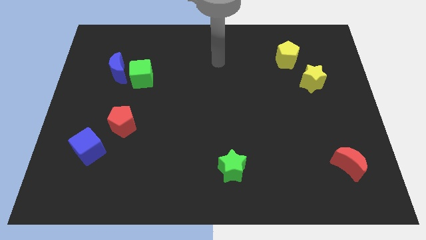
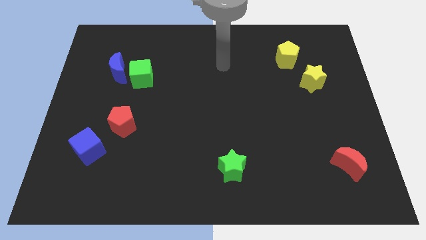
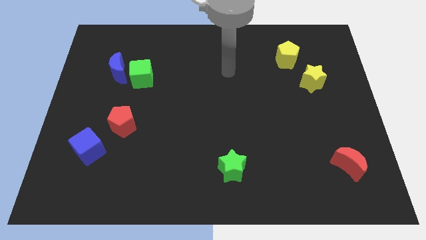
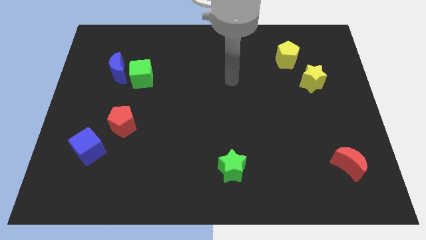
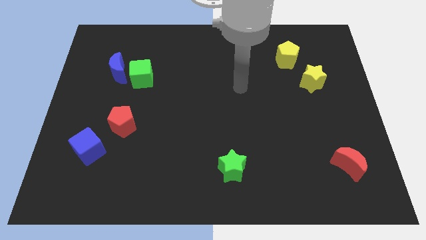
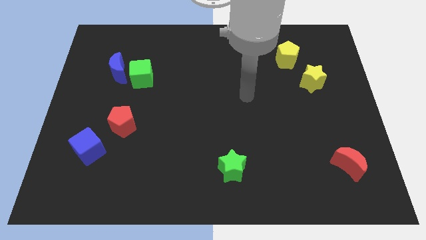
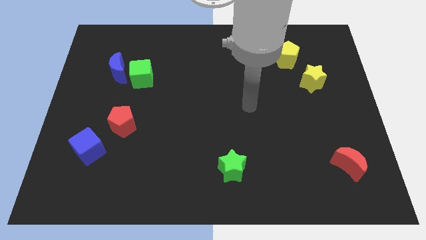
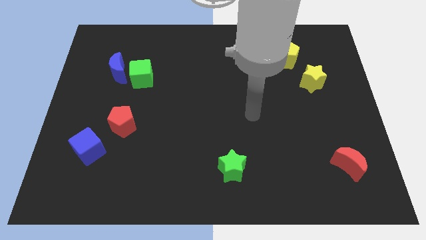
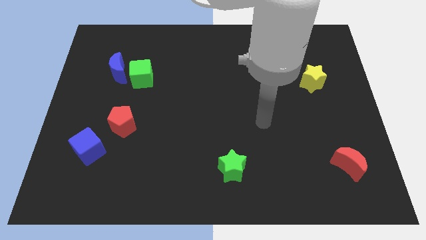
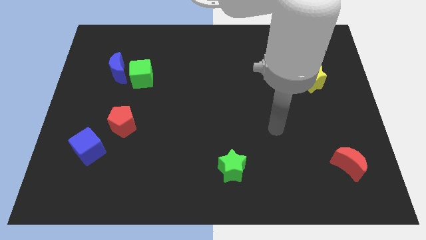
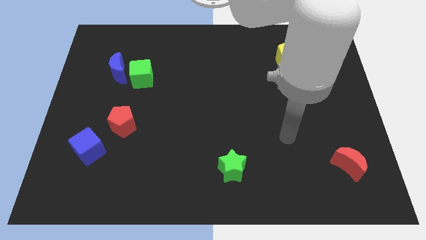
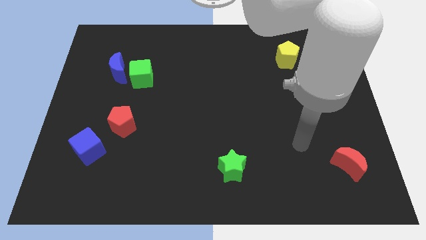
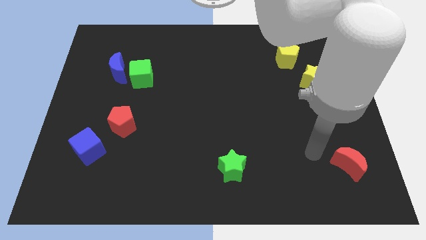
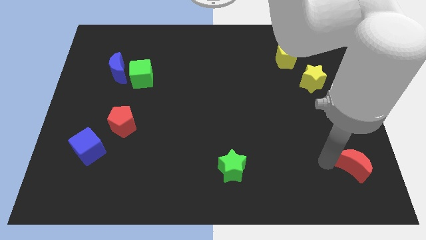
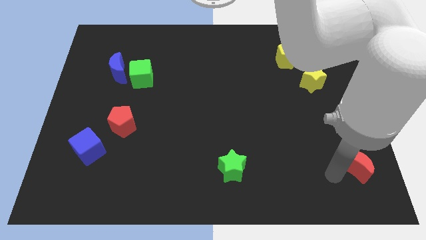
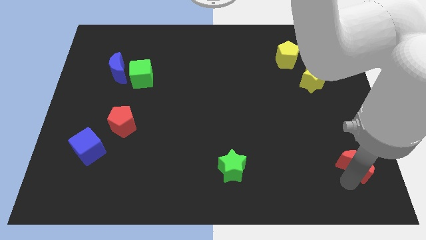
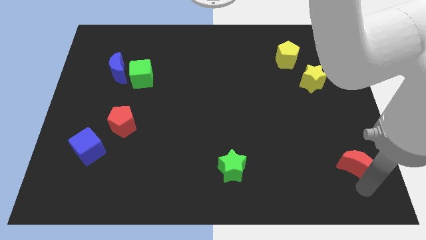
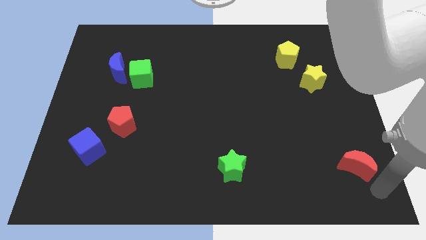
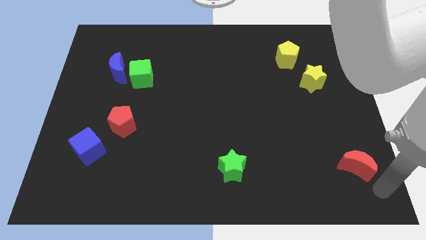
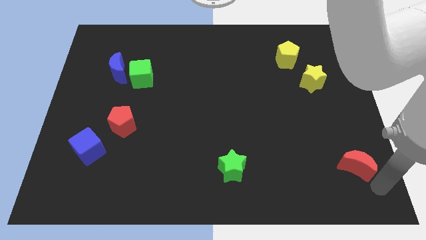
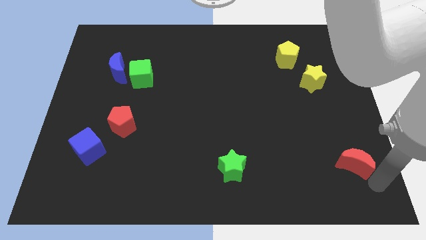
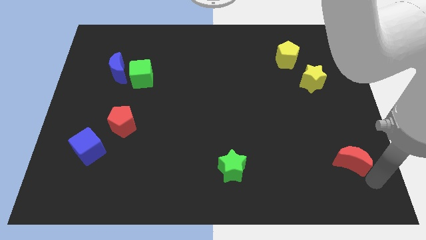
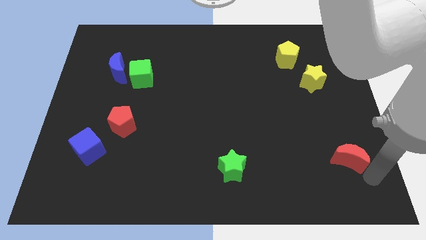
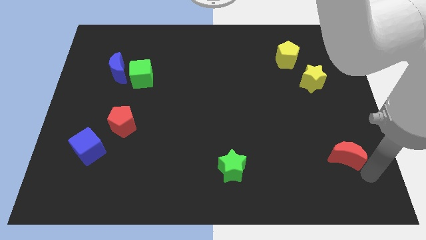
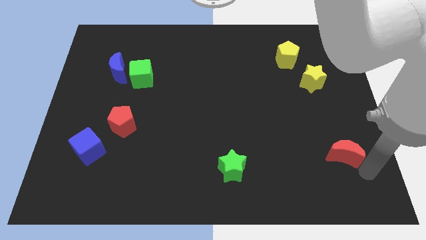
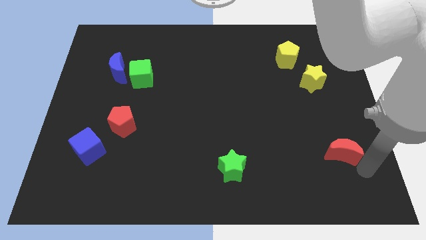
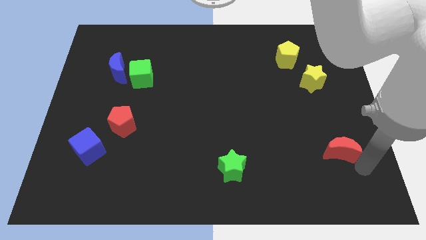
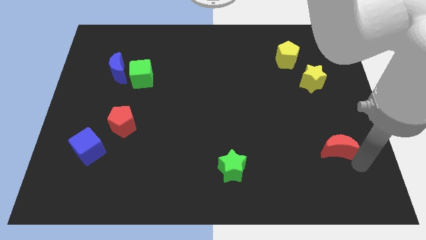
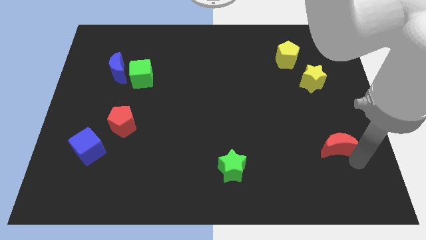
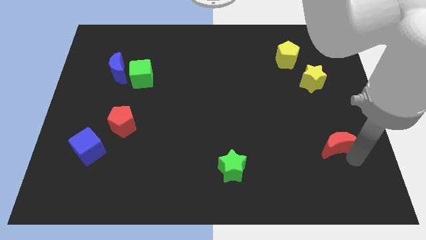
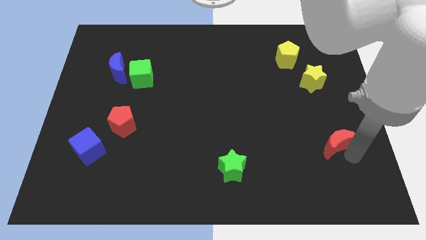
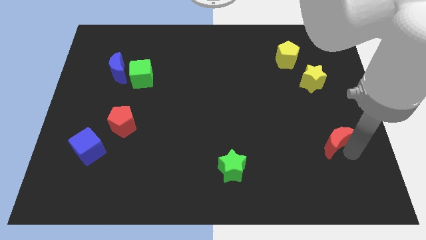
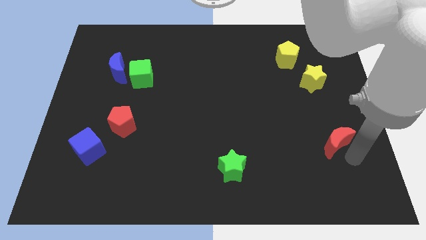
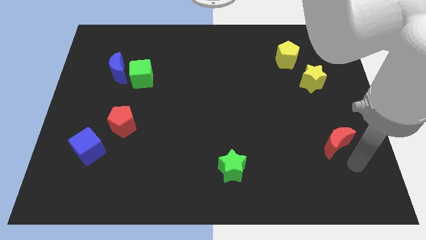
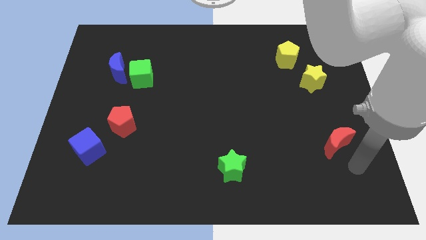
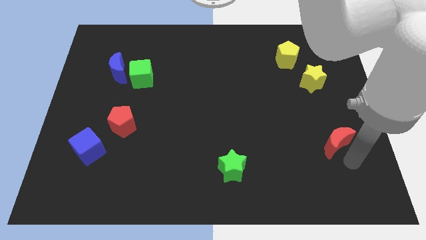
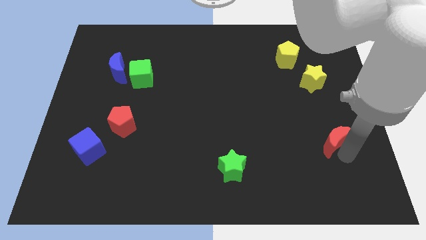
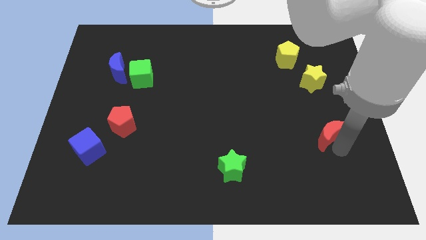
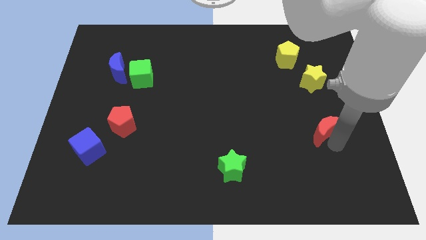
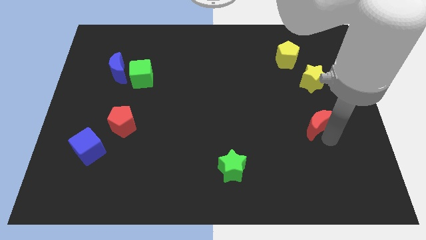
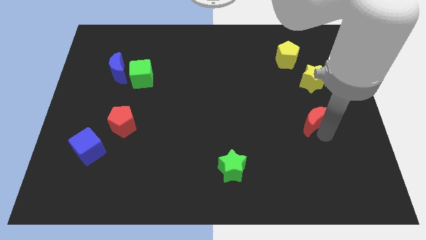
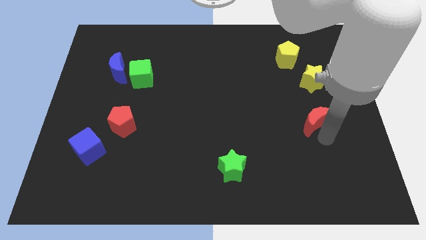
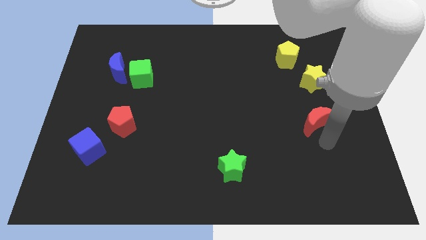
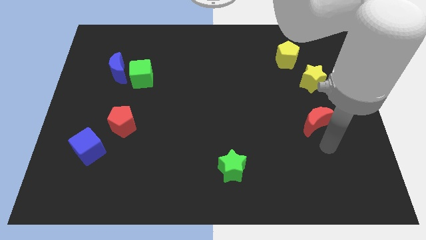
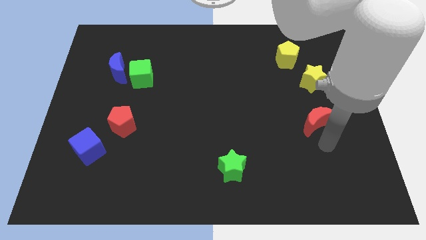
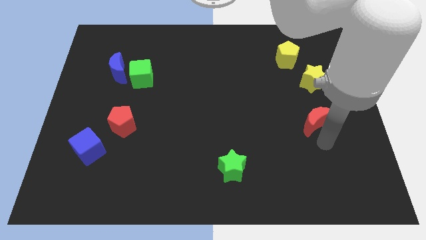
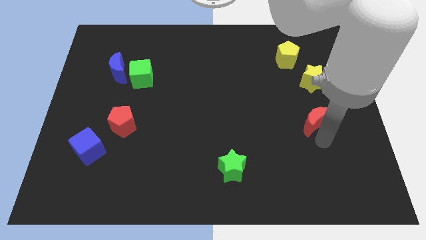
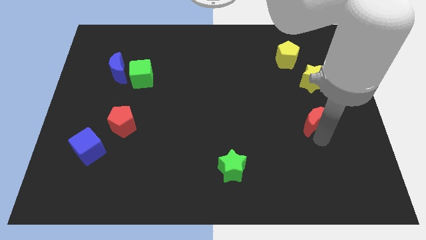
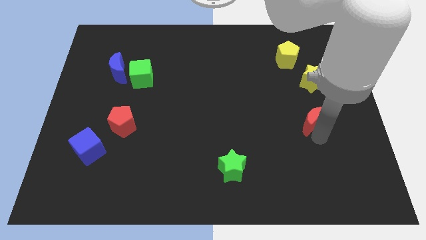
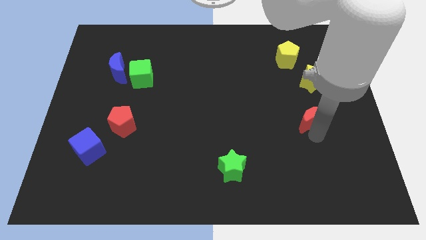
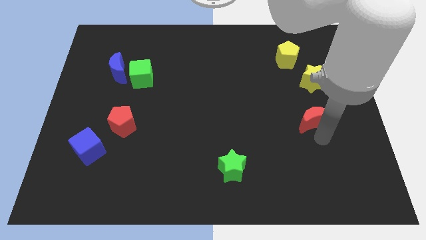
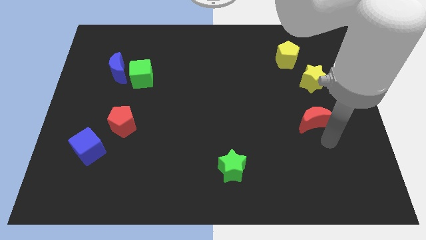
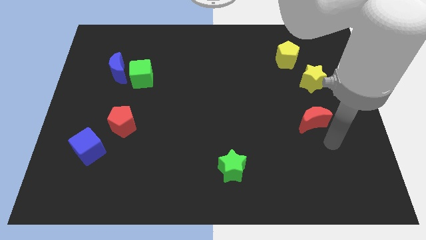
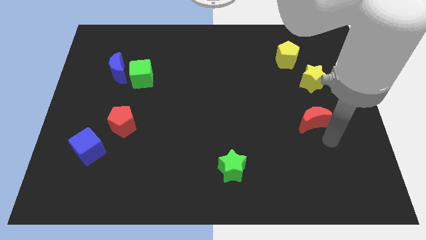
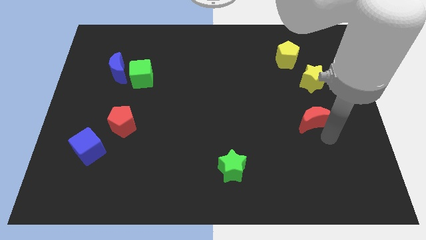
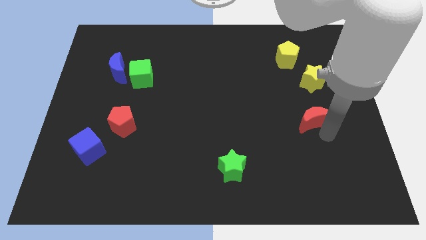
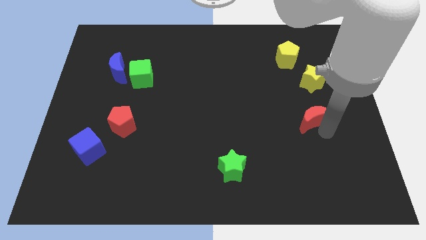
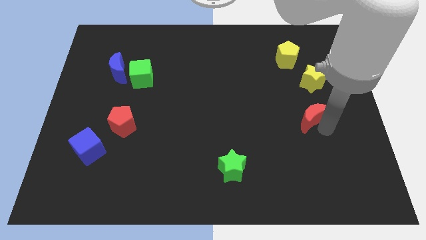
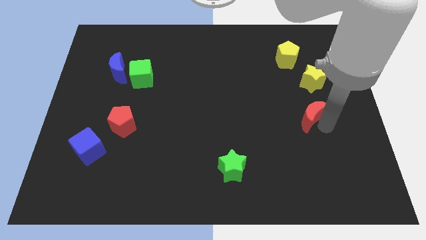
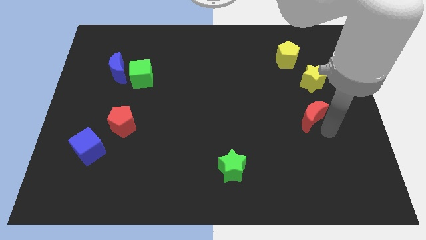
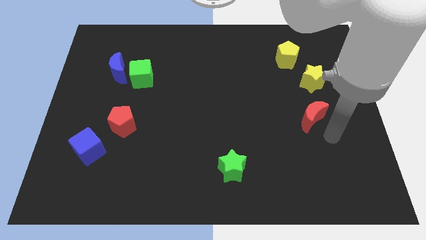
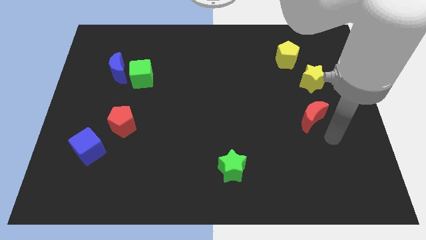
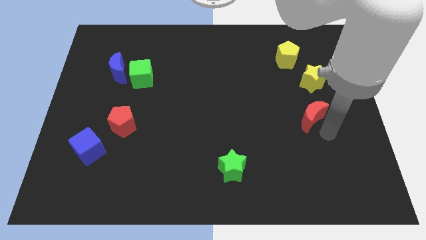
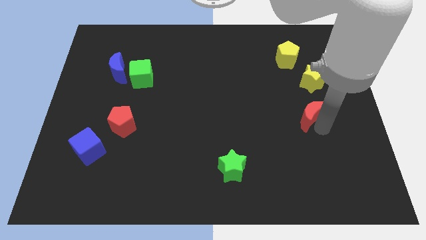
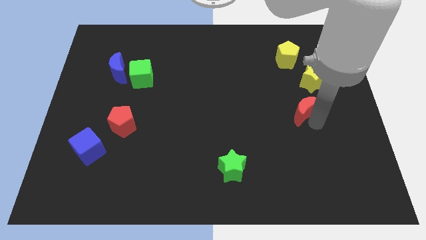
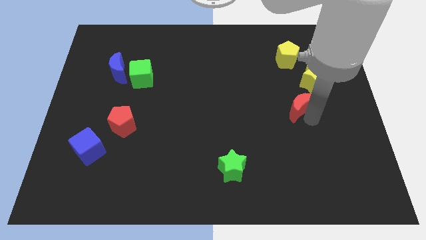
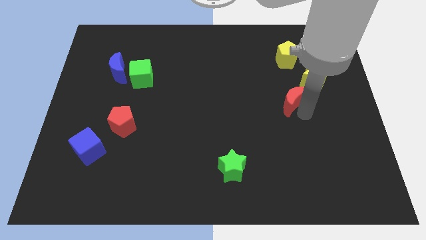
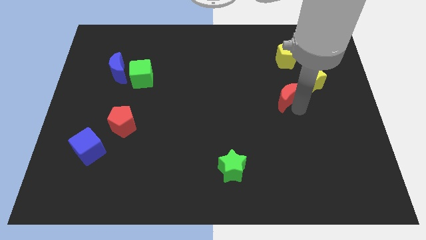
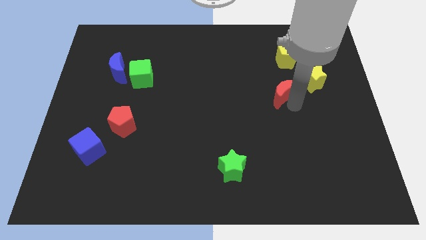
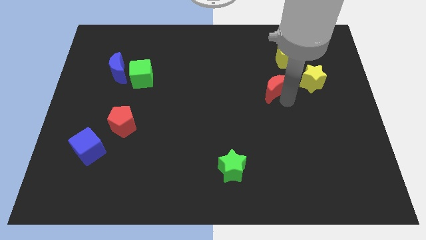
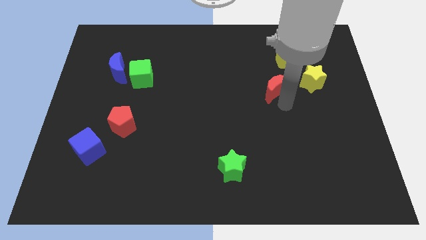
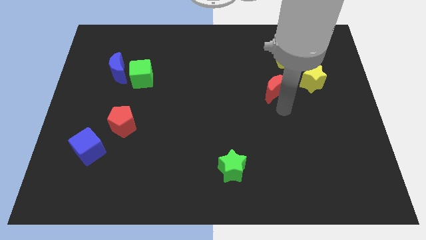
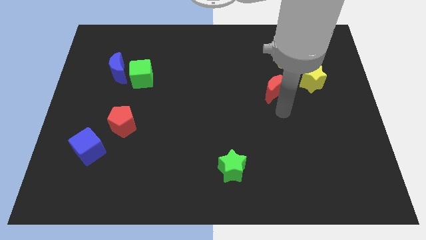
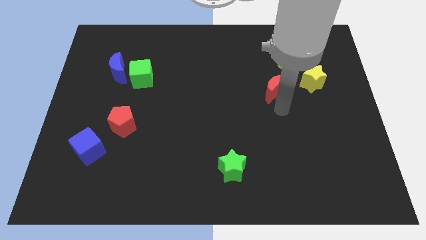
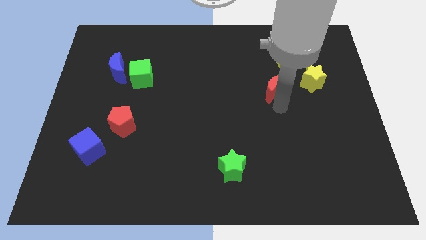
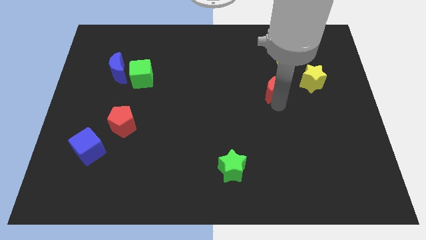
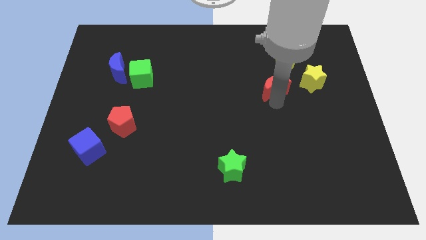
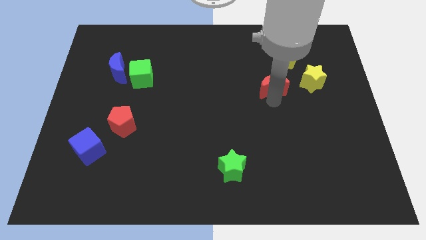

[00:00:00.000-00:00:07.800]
push the red moon to the bottom left of the yellow pentagon

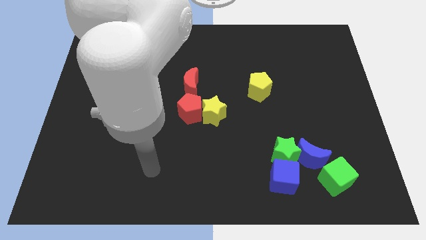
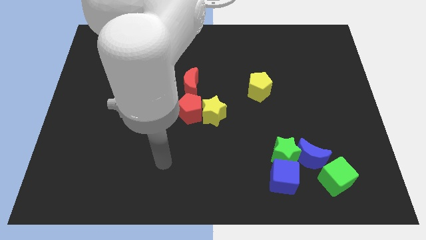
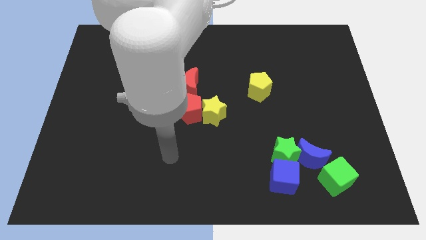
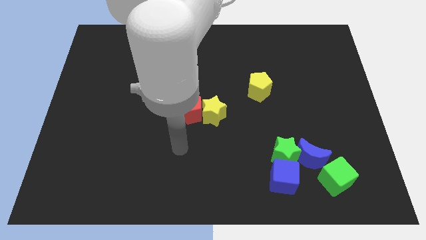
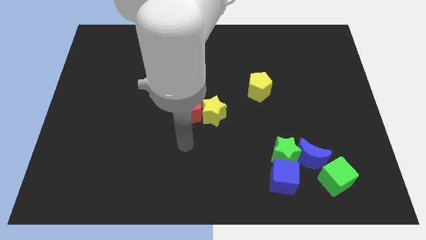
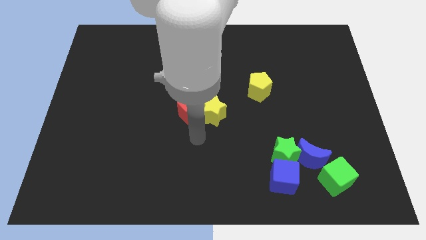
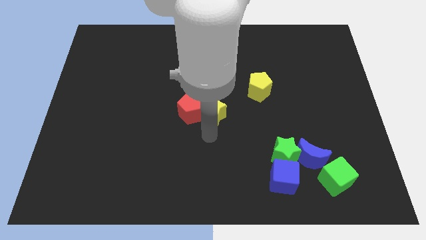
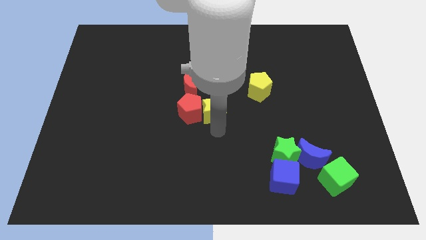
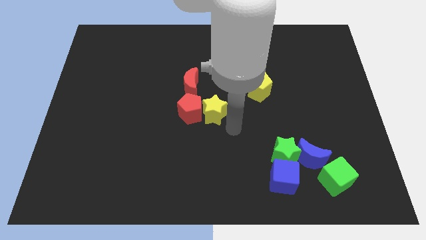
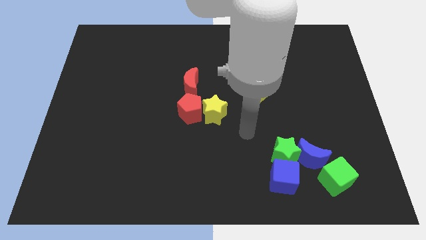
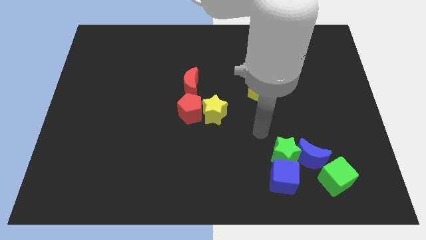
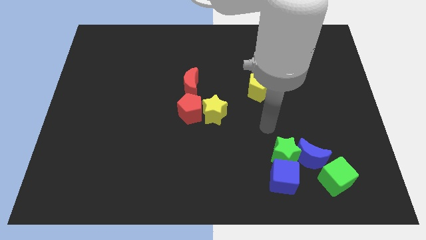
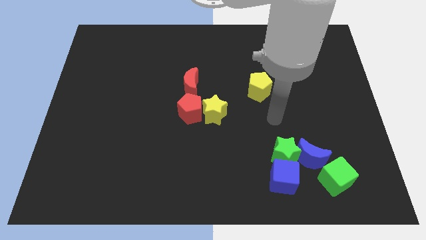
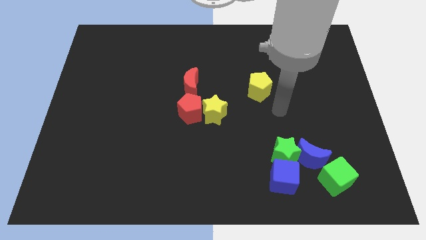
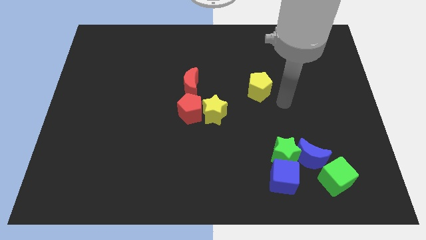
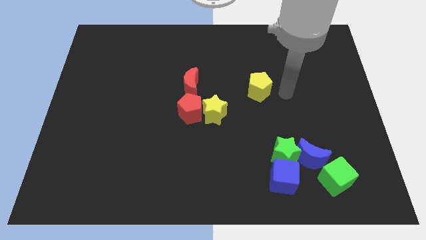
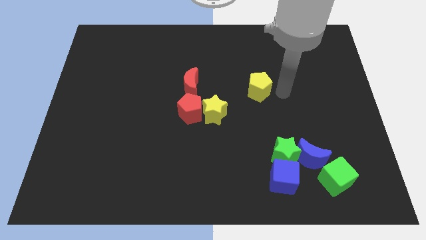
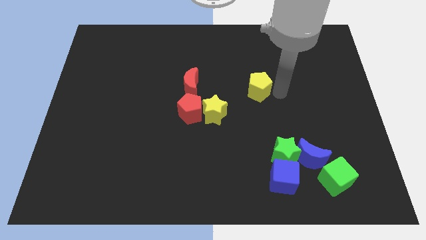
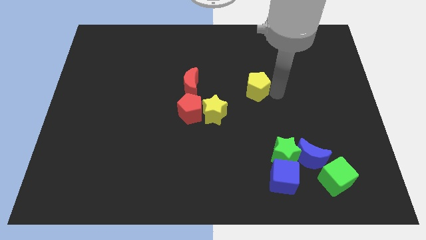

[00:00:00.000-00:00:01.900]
slide the yellow pentagon just right of the red moon
